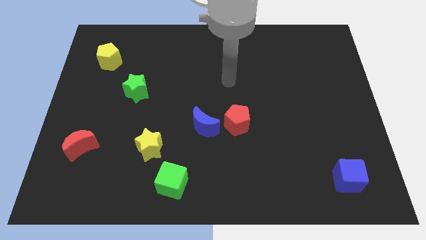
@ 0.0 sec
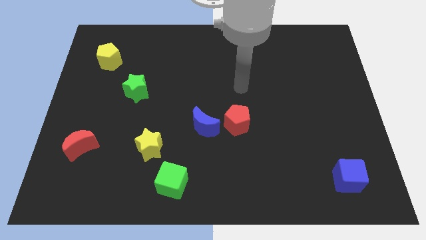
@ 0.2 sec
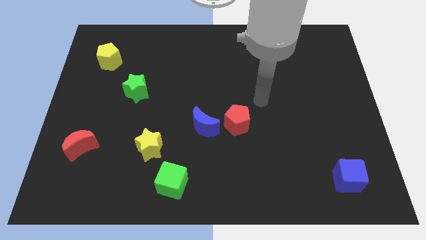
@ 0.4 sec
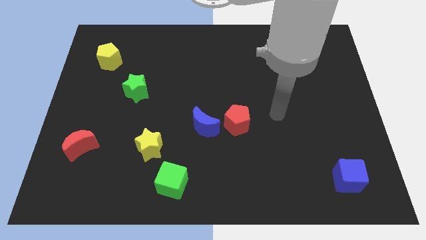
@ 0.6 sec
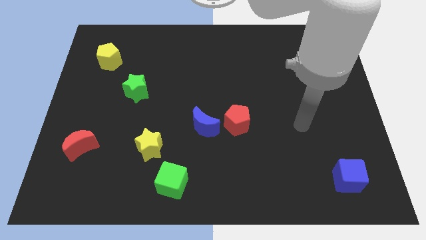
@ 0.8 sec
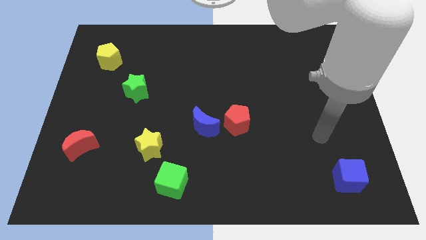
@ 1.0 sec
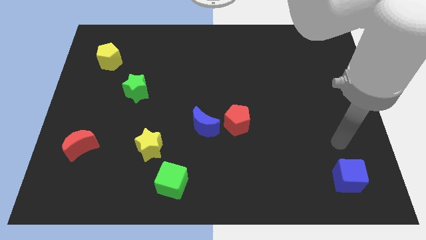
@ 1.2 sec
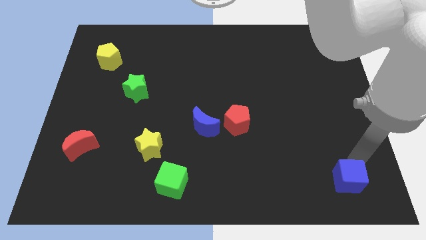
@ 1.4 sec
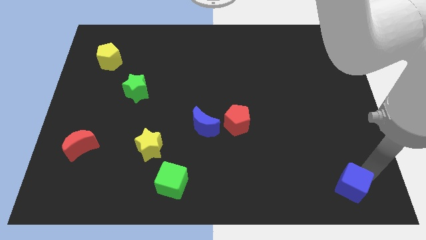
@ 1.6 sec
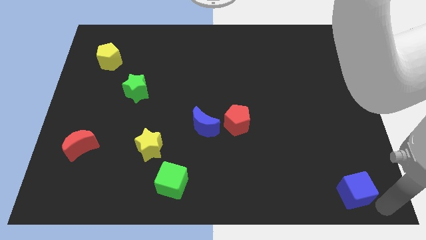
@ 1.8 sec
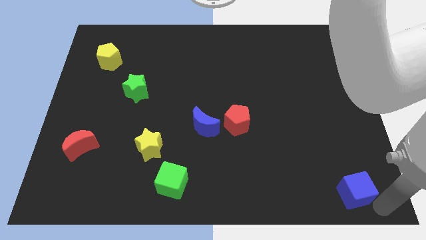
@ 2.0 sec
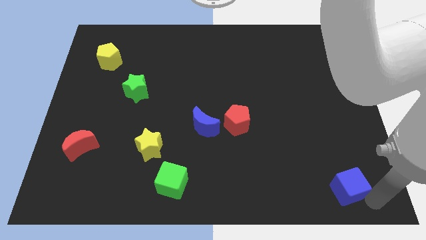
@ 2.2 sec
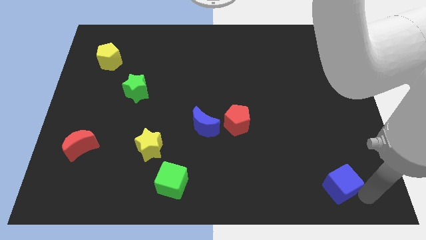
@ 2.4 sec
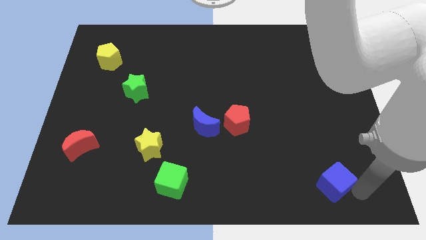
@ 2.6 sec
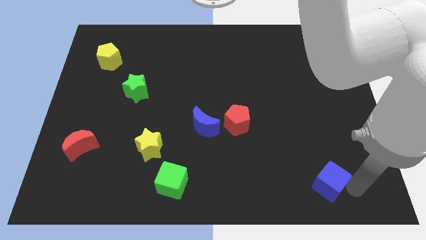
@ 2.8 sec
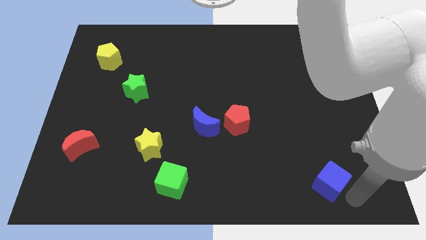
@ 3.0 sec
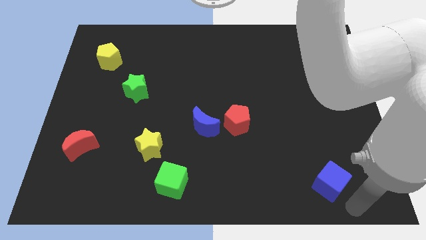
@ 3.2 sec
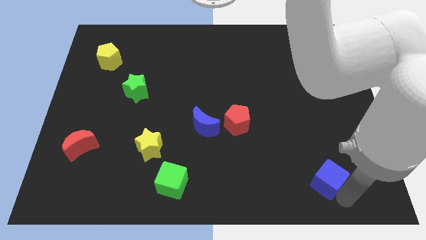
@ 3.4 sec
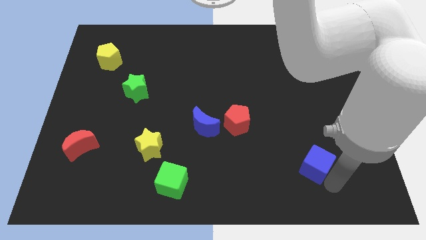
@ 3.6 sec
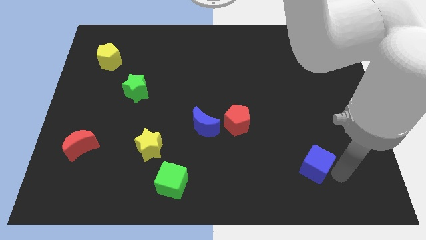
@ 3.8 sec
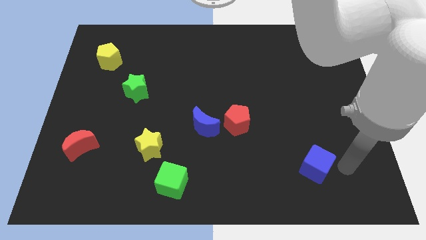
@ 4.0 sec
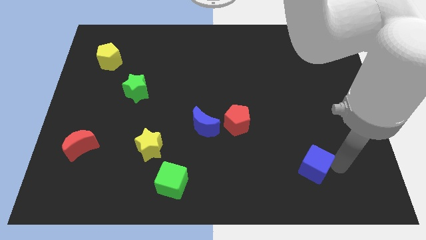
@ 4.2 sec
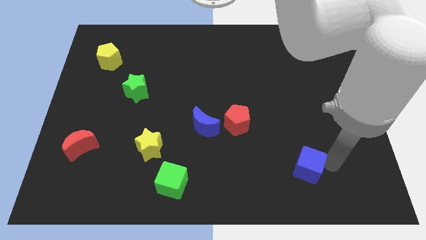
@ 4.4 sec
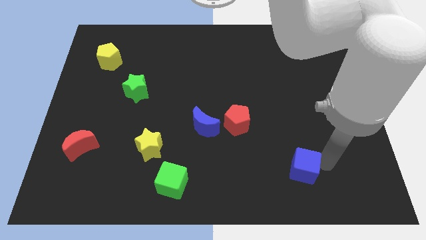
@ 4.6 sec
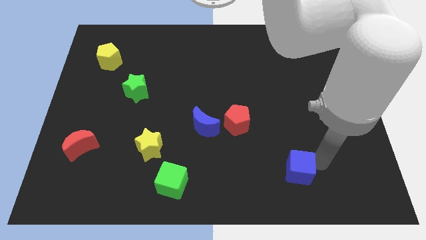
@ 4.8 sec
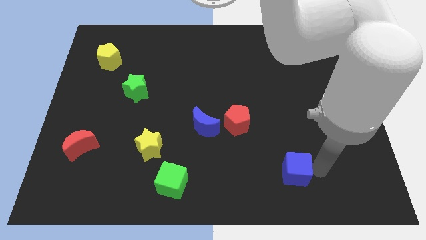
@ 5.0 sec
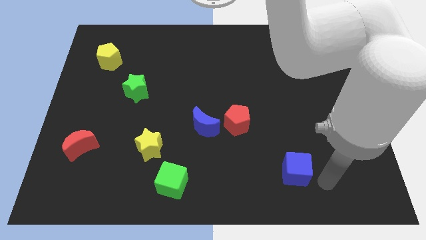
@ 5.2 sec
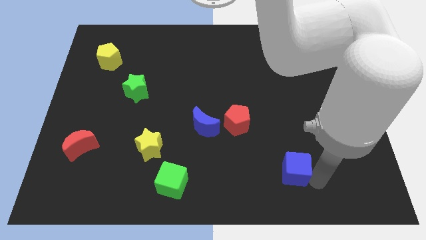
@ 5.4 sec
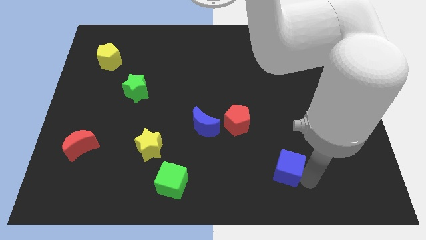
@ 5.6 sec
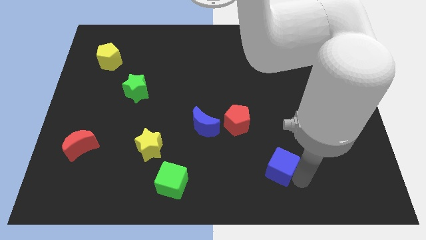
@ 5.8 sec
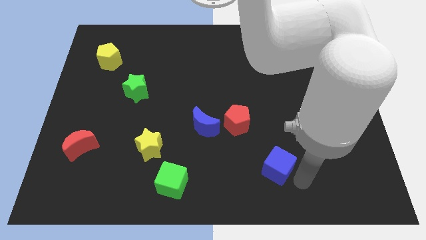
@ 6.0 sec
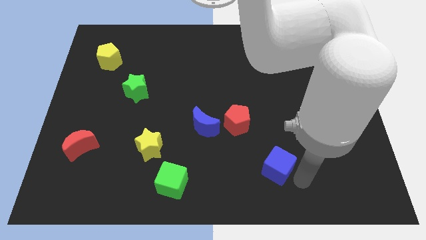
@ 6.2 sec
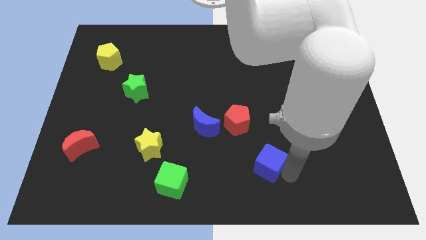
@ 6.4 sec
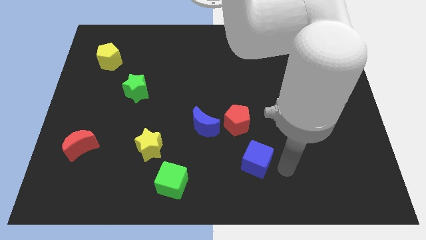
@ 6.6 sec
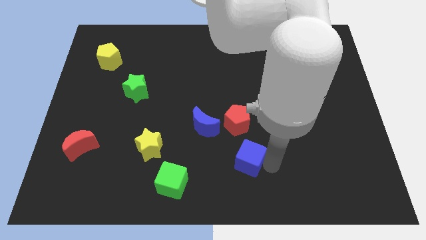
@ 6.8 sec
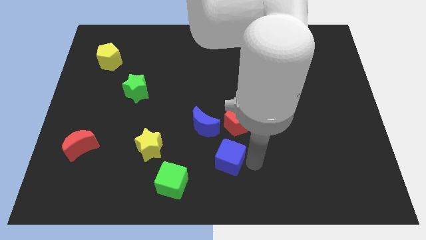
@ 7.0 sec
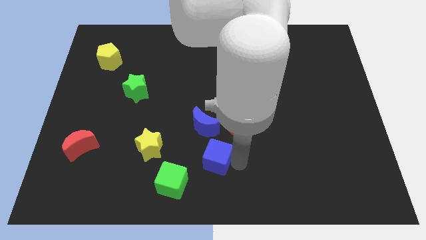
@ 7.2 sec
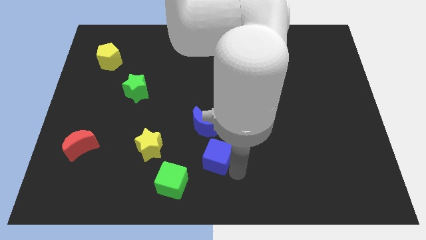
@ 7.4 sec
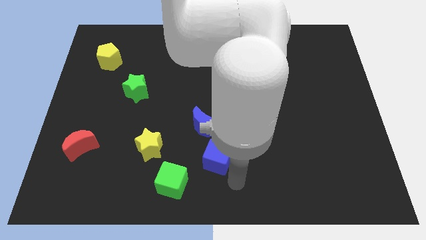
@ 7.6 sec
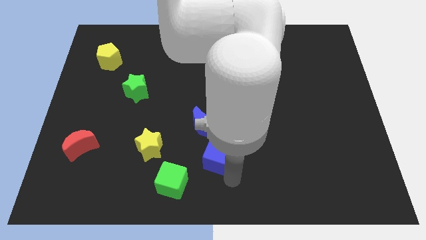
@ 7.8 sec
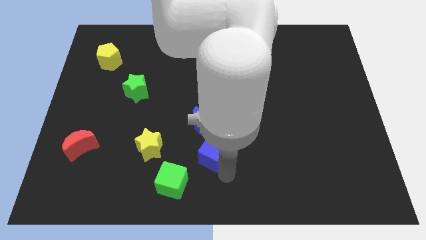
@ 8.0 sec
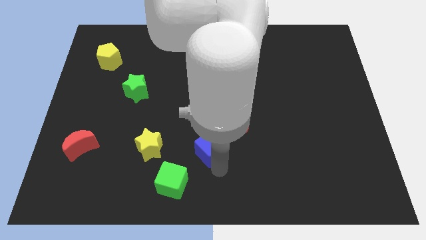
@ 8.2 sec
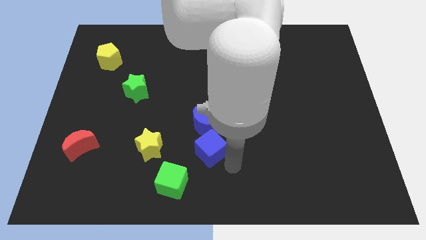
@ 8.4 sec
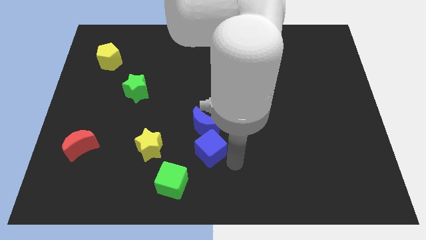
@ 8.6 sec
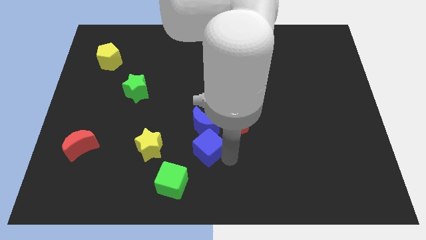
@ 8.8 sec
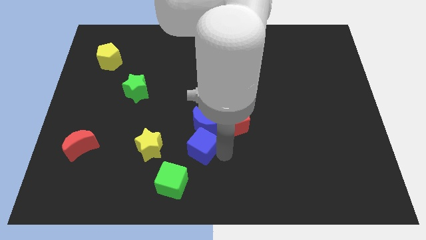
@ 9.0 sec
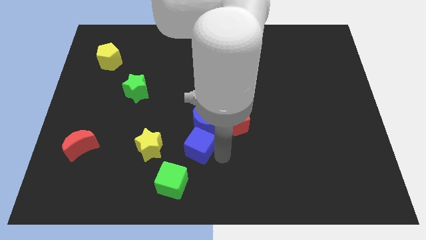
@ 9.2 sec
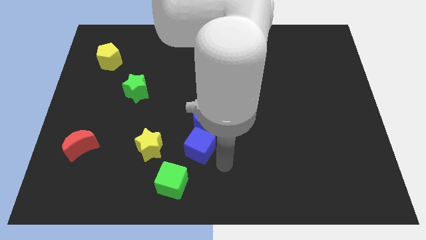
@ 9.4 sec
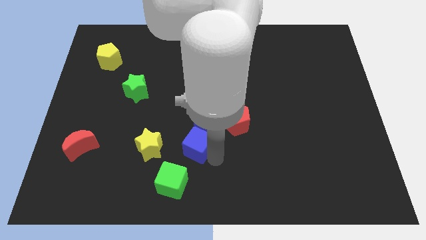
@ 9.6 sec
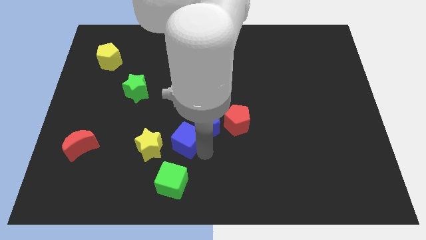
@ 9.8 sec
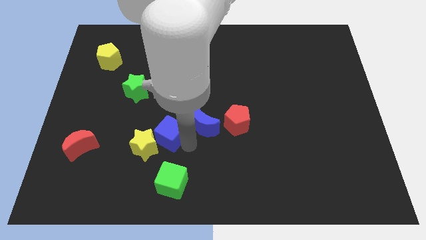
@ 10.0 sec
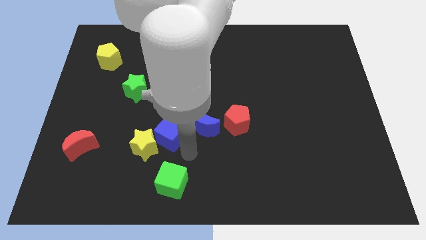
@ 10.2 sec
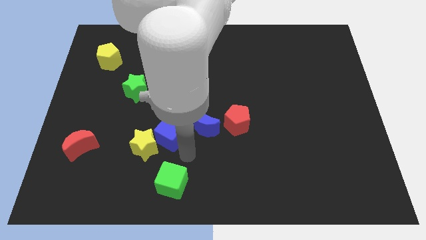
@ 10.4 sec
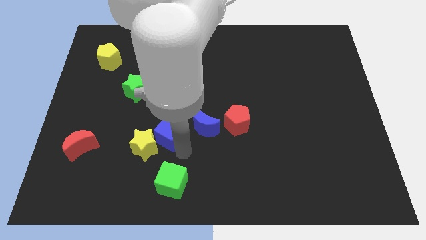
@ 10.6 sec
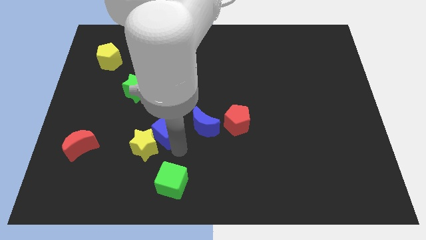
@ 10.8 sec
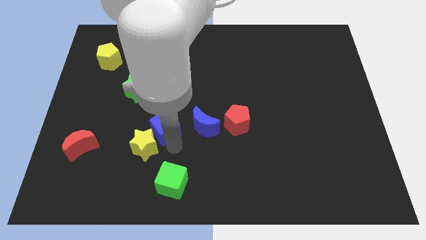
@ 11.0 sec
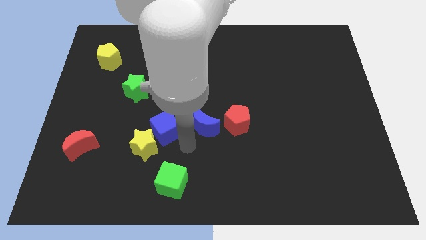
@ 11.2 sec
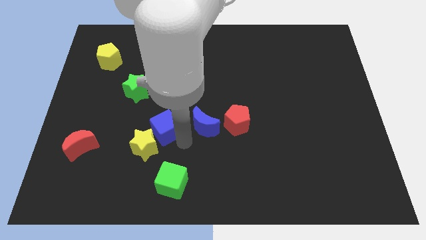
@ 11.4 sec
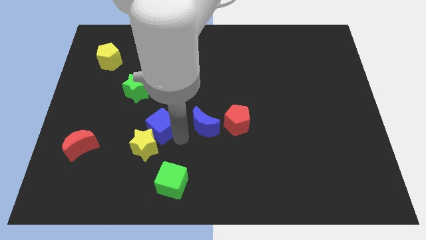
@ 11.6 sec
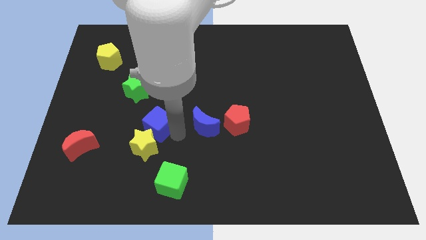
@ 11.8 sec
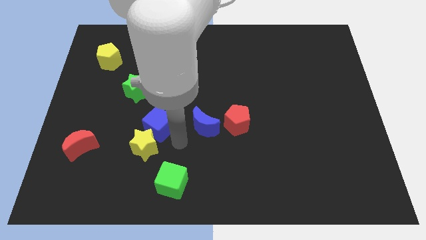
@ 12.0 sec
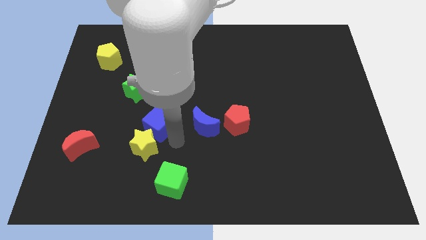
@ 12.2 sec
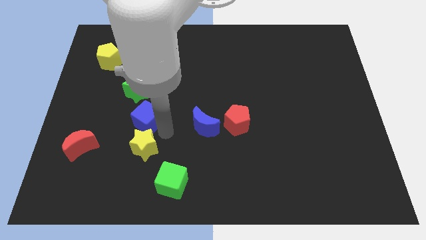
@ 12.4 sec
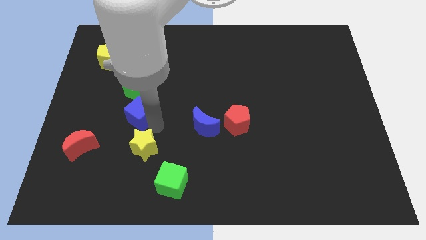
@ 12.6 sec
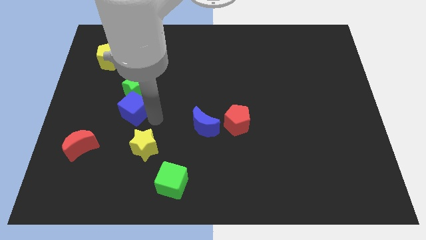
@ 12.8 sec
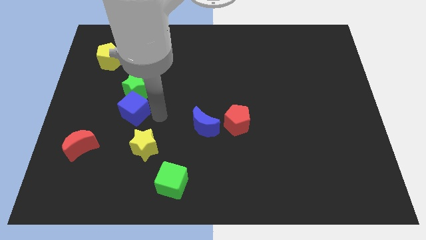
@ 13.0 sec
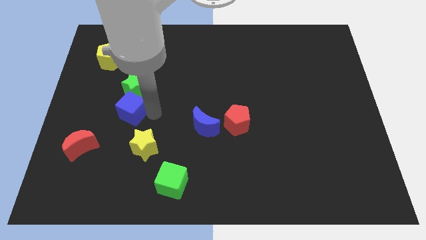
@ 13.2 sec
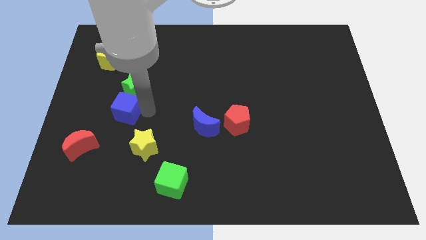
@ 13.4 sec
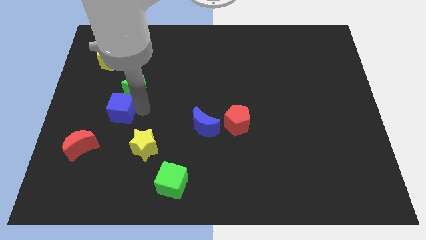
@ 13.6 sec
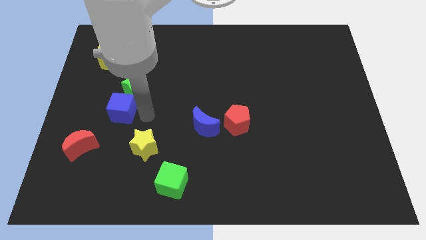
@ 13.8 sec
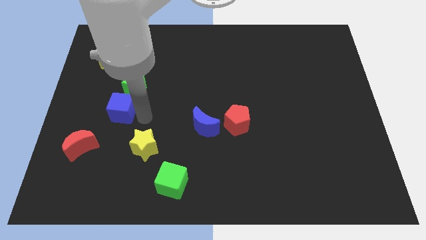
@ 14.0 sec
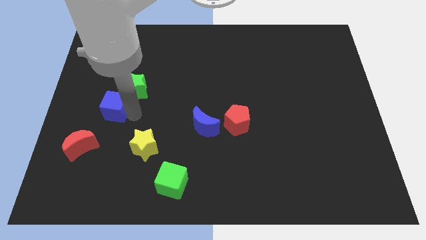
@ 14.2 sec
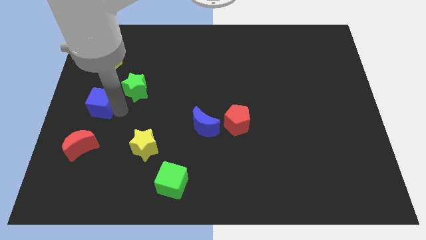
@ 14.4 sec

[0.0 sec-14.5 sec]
put the blue cube to the left side of the board
